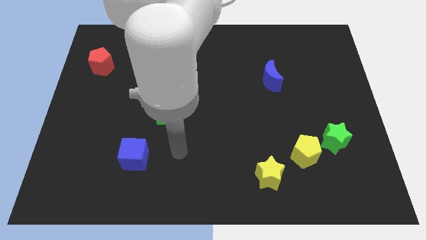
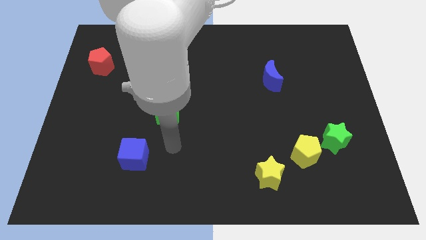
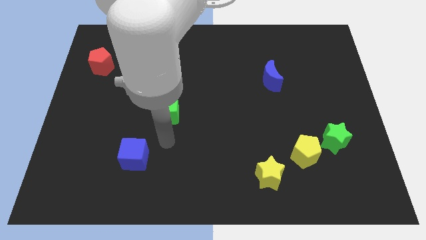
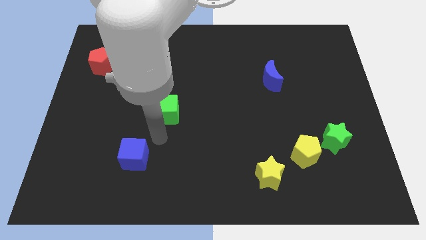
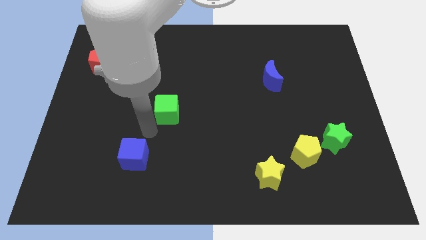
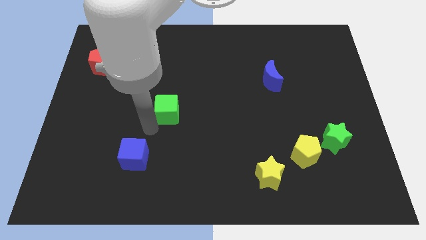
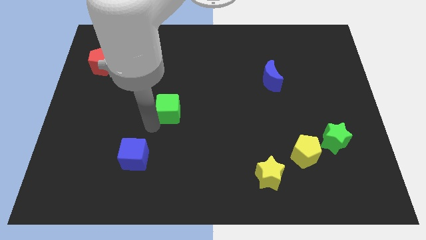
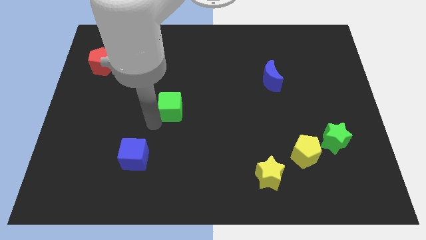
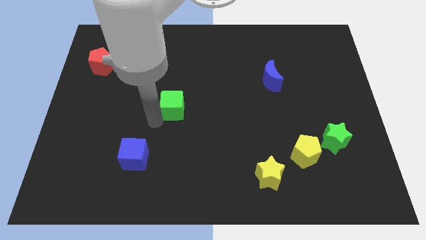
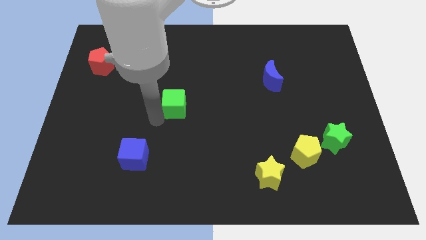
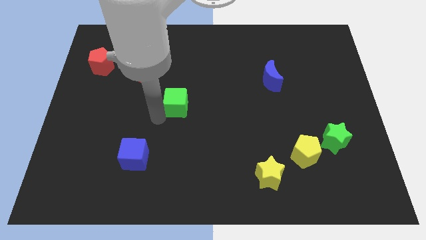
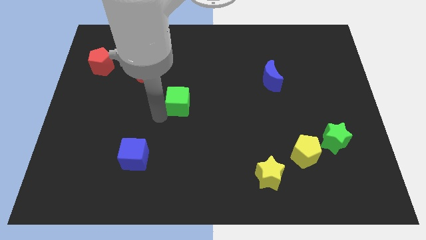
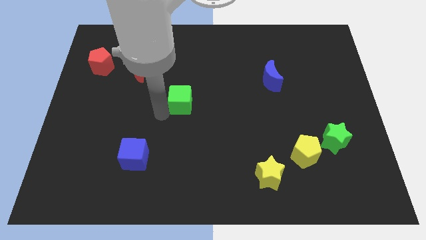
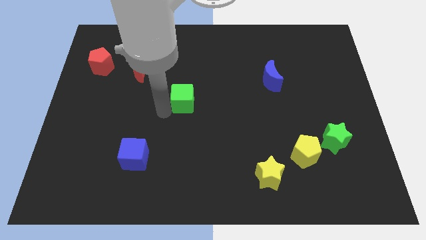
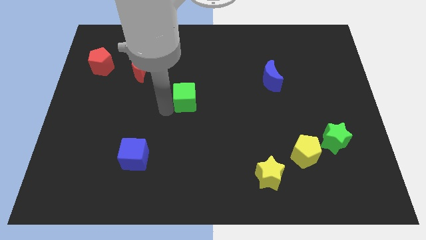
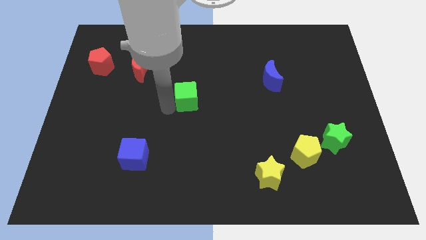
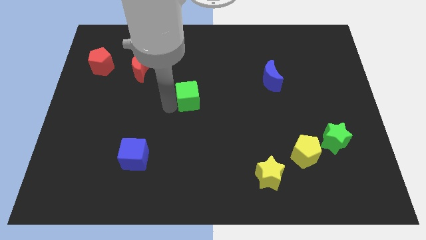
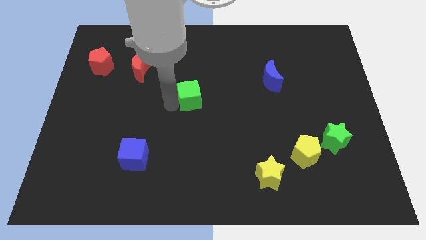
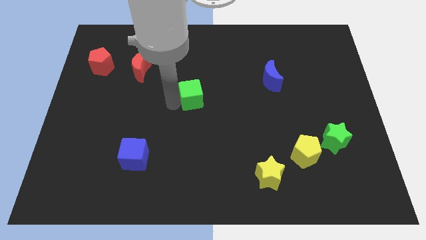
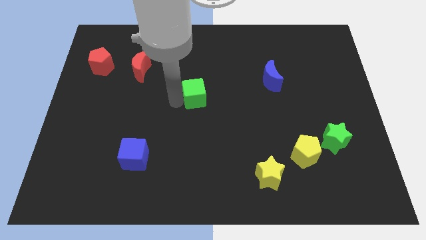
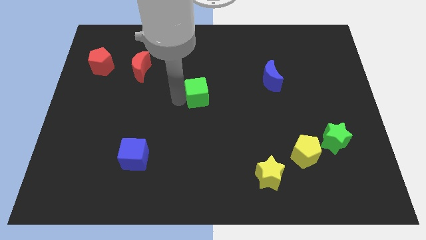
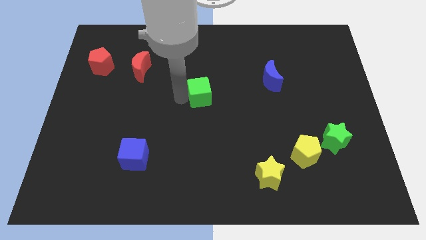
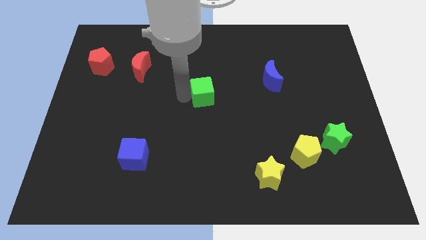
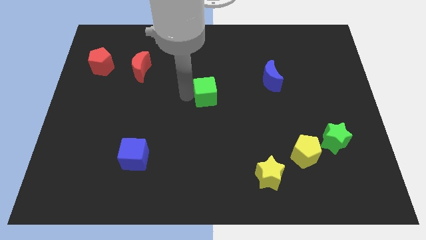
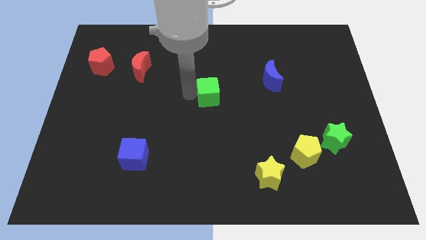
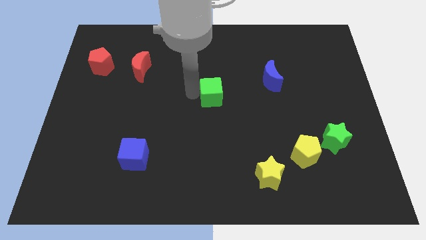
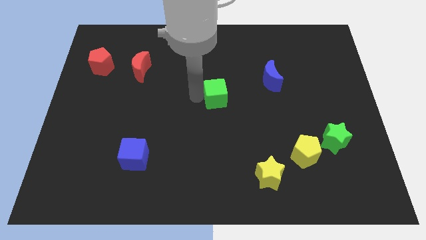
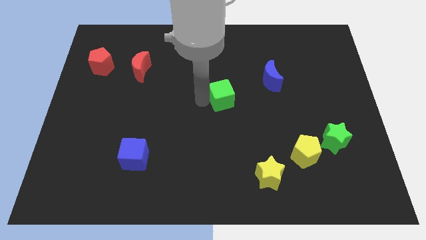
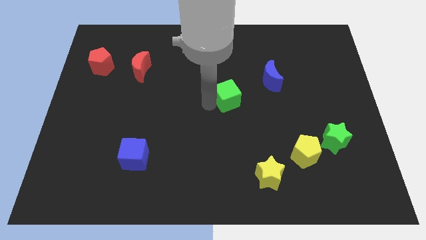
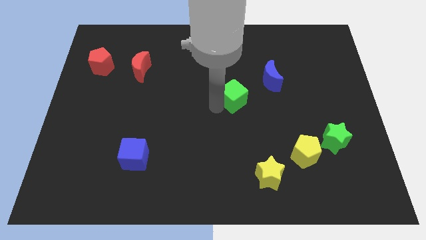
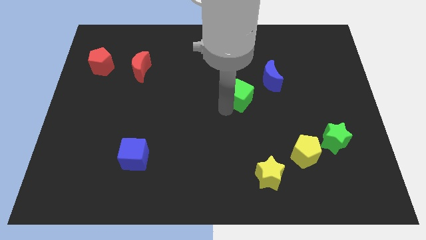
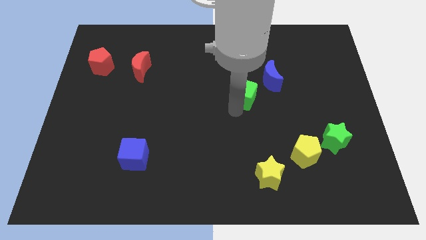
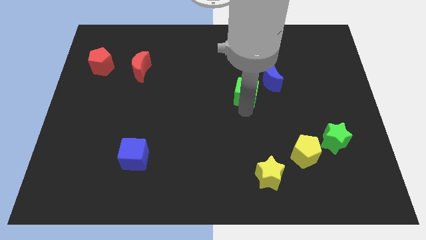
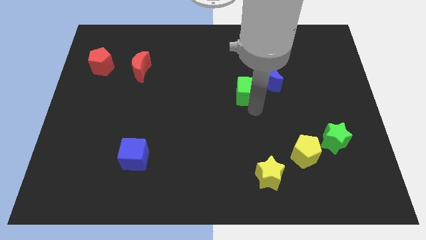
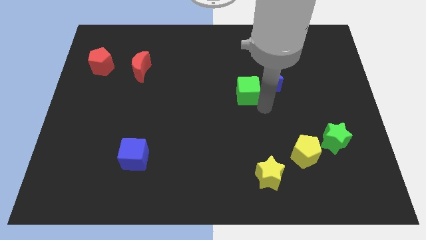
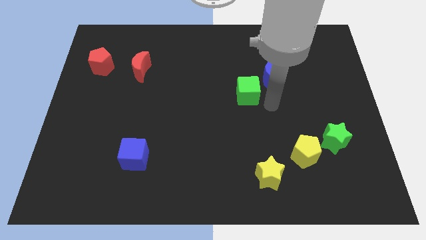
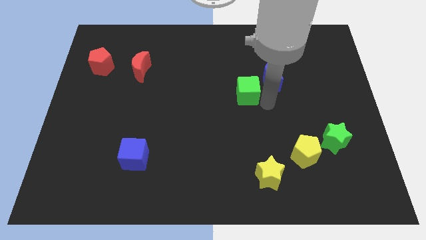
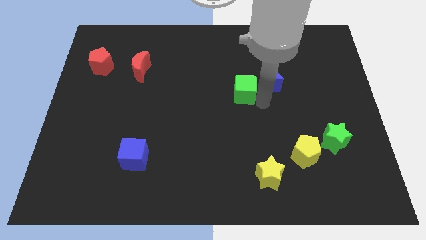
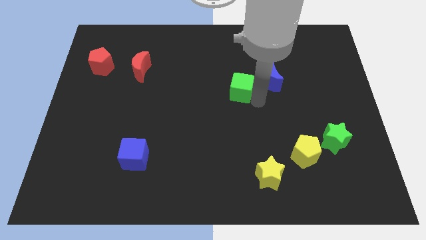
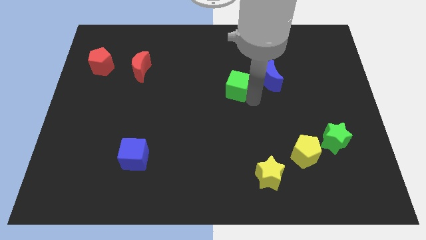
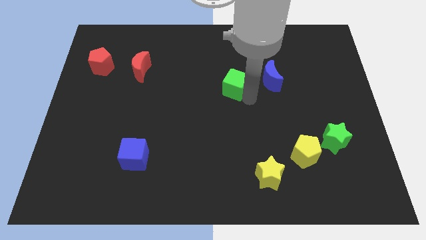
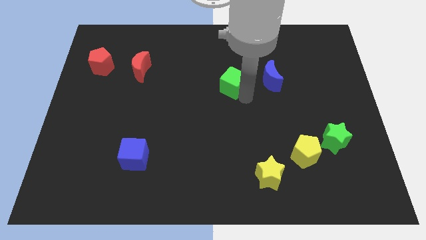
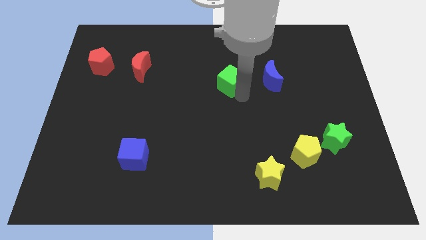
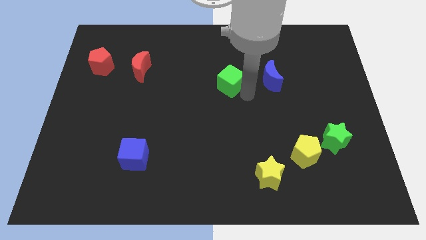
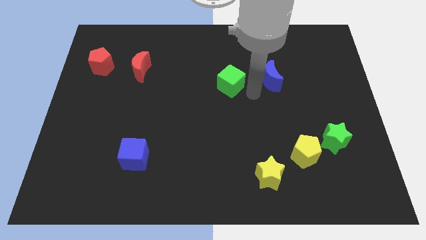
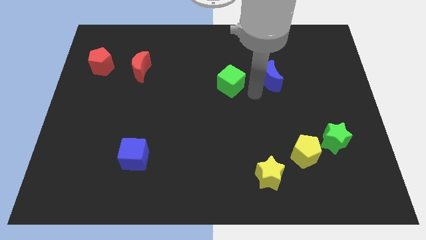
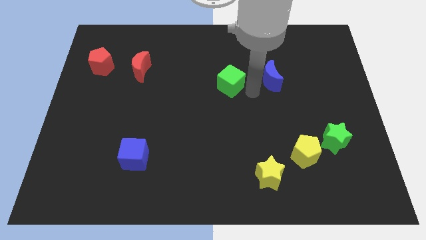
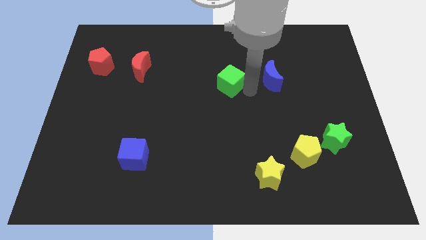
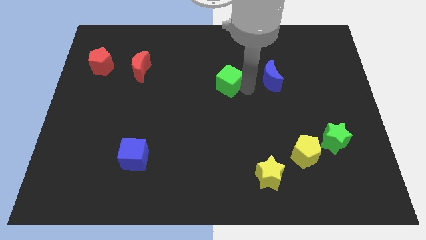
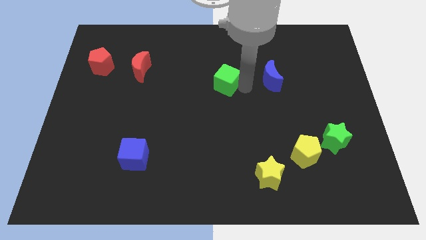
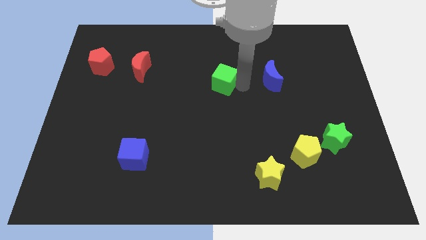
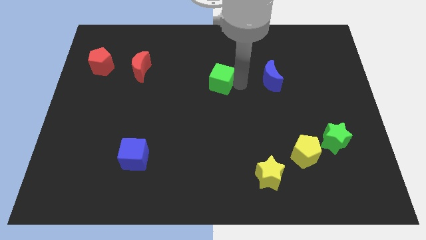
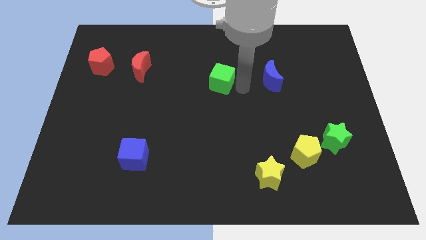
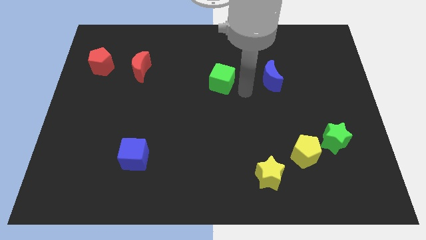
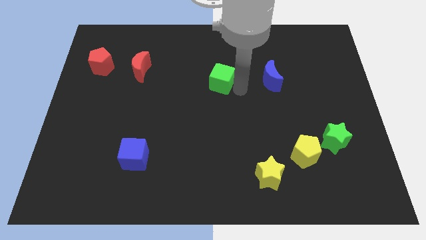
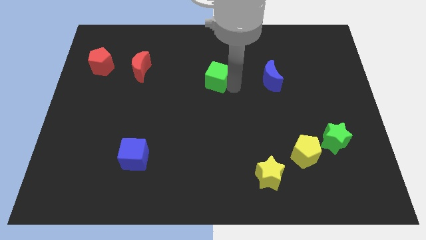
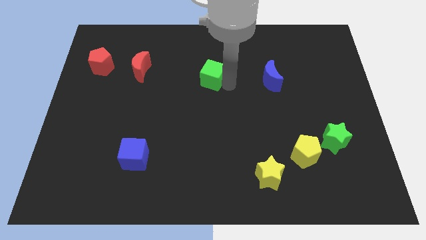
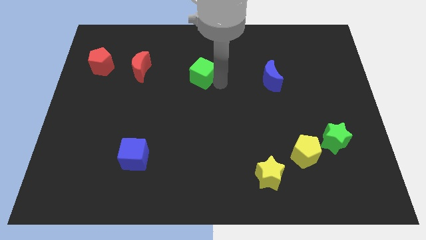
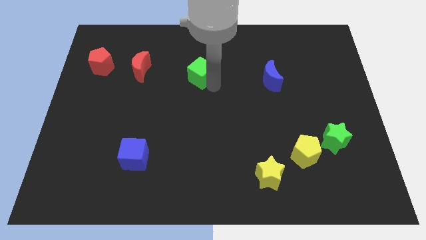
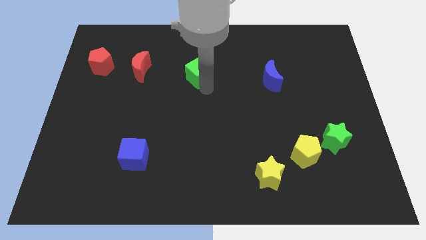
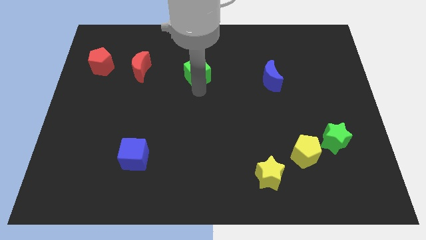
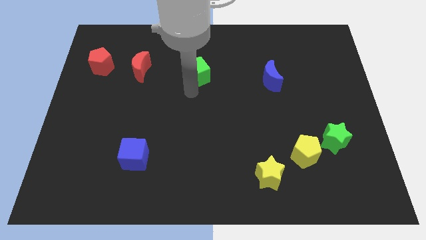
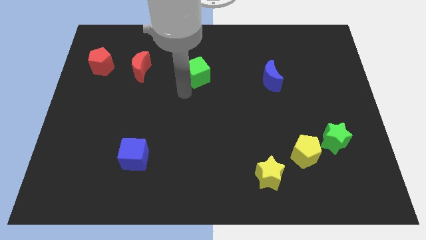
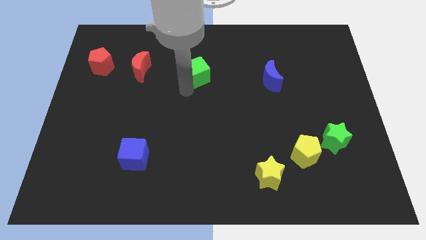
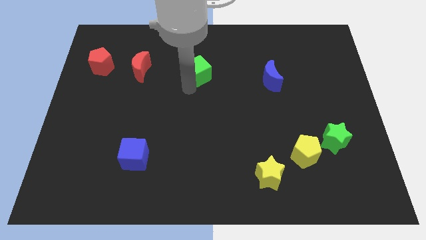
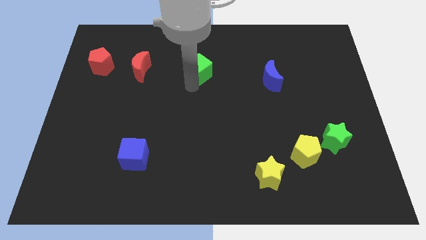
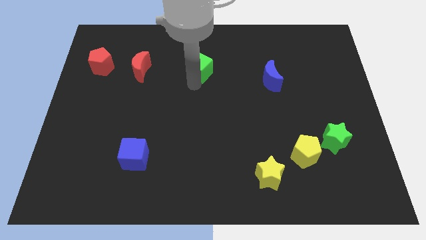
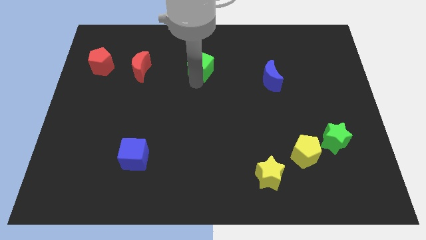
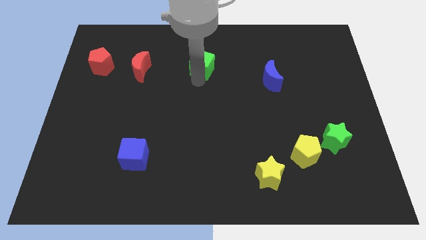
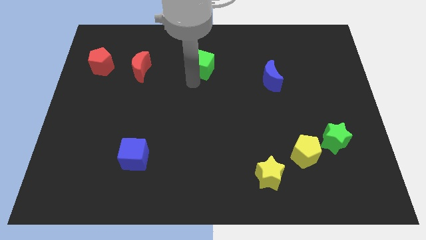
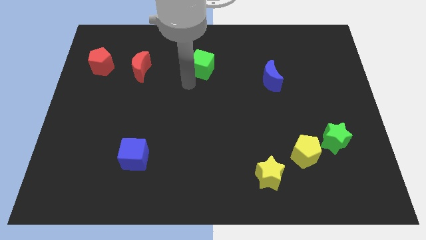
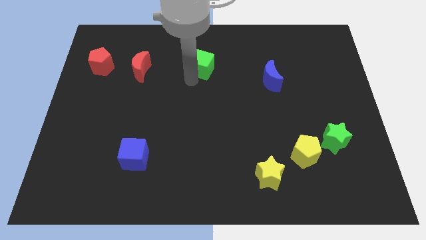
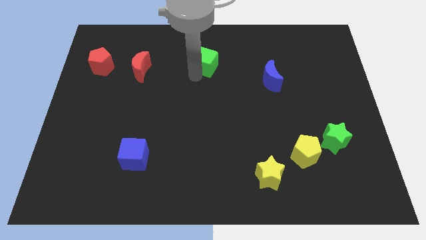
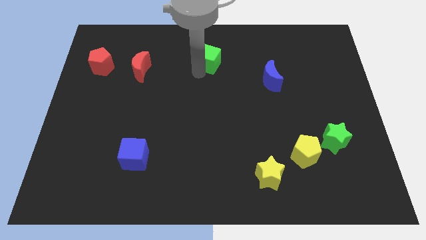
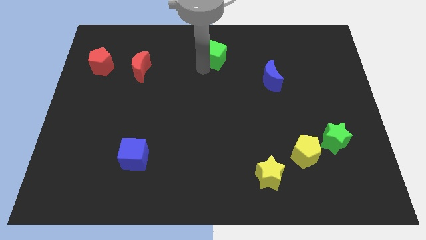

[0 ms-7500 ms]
move the green cube to the top
